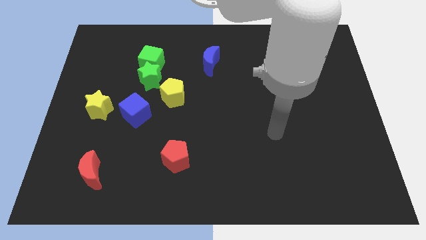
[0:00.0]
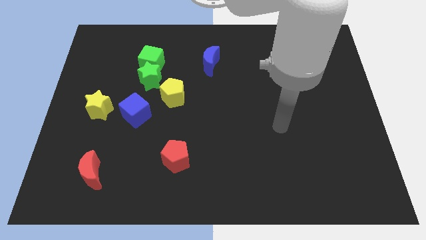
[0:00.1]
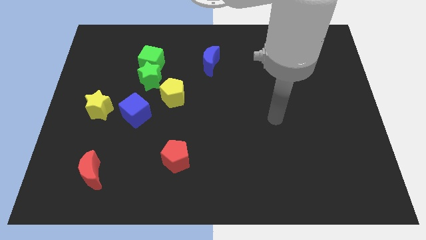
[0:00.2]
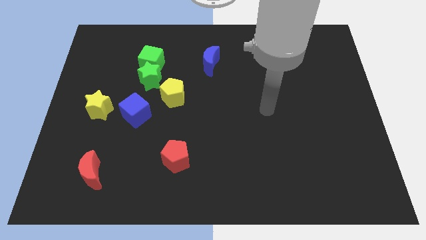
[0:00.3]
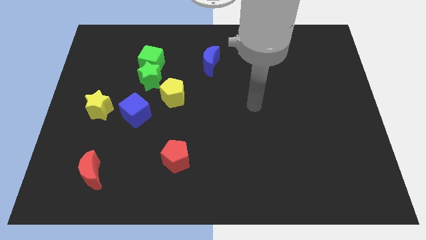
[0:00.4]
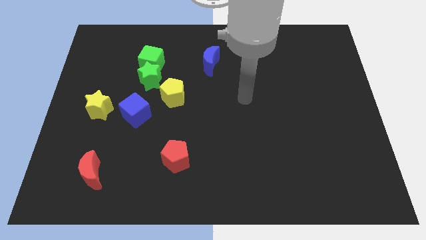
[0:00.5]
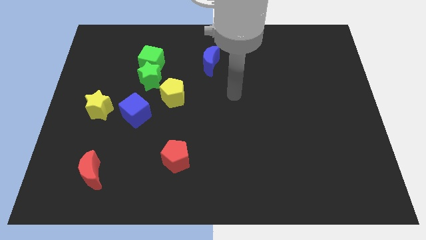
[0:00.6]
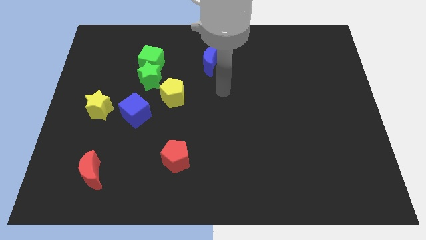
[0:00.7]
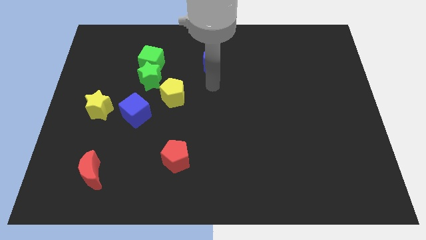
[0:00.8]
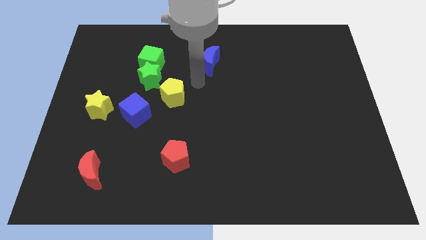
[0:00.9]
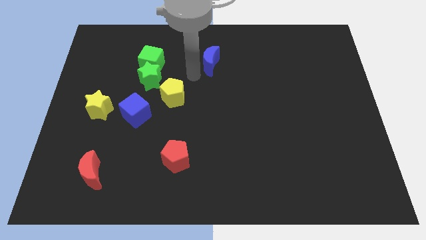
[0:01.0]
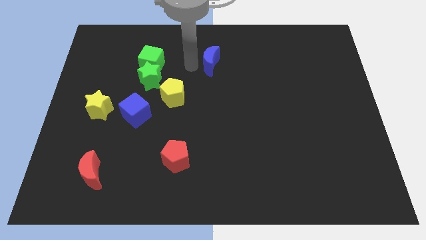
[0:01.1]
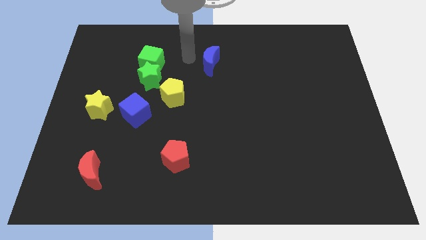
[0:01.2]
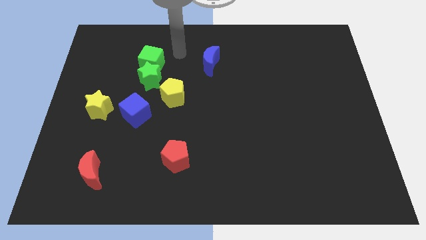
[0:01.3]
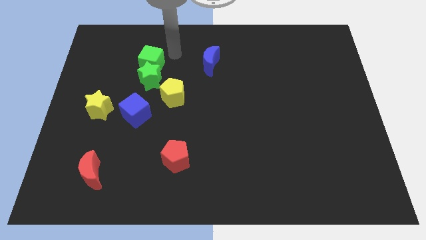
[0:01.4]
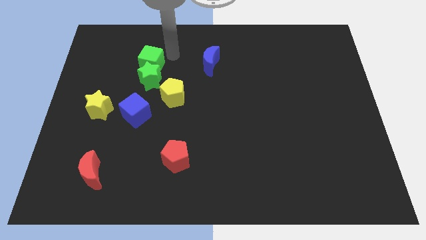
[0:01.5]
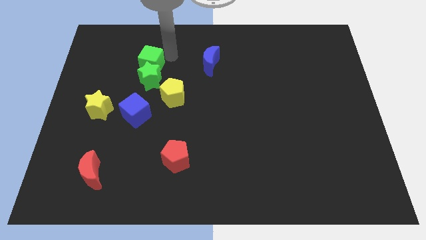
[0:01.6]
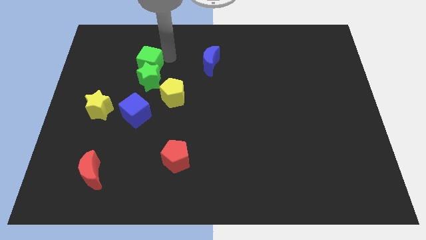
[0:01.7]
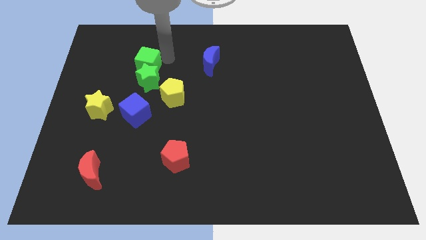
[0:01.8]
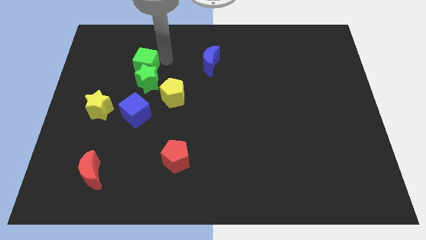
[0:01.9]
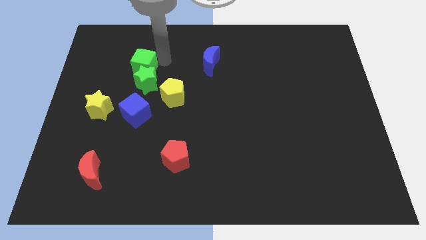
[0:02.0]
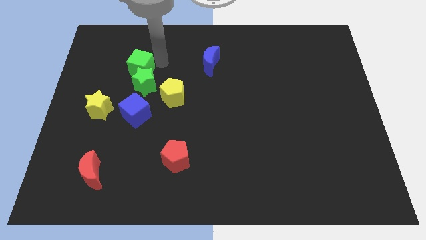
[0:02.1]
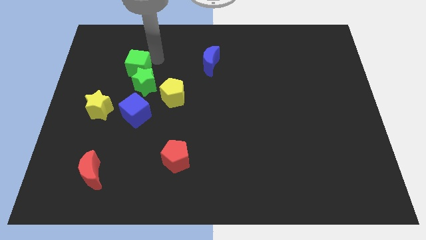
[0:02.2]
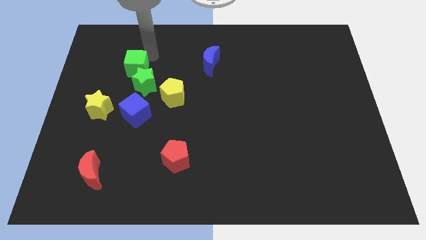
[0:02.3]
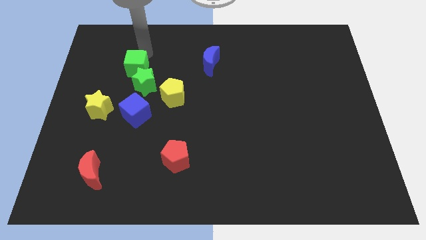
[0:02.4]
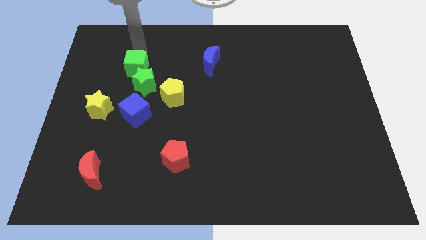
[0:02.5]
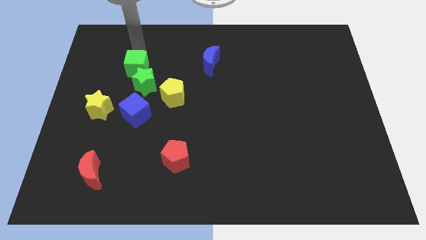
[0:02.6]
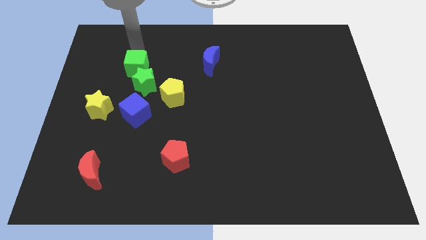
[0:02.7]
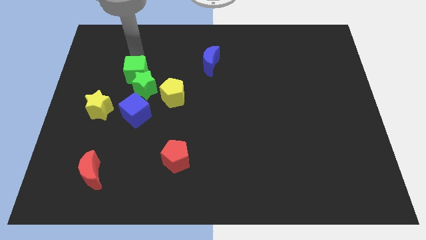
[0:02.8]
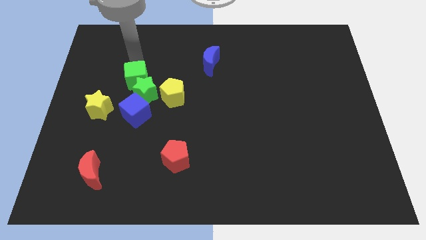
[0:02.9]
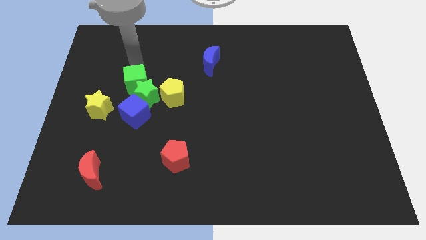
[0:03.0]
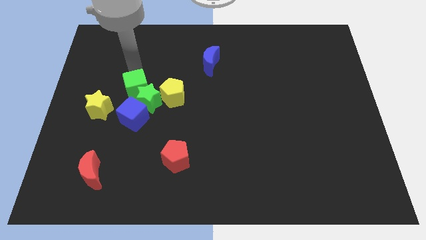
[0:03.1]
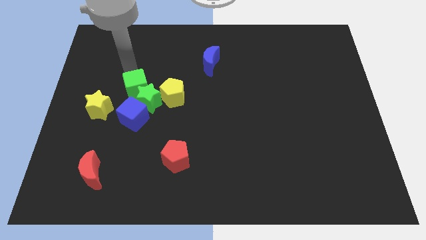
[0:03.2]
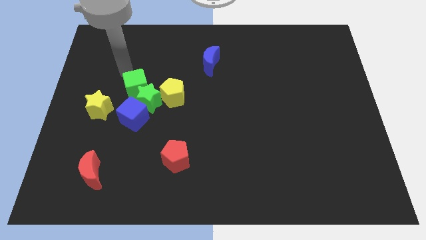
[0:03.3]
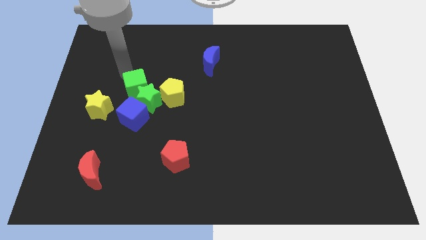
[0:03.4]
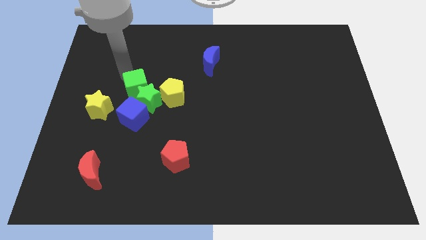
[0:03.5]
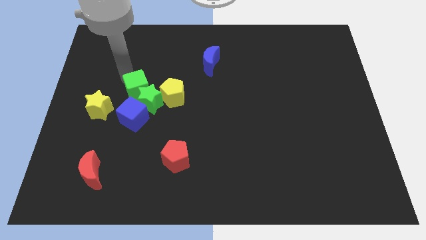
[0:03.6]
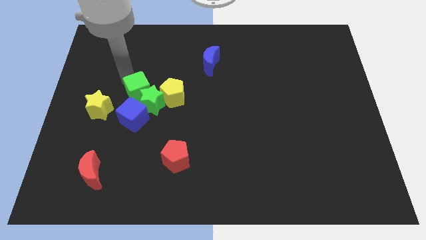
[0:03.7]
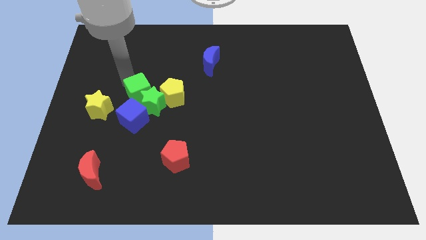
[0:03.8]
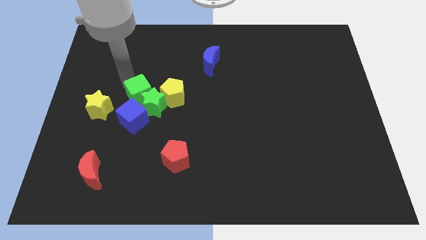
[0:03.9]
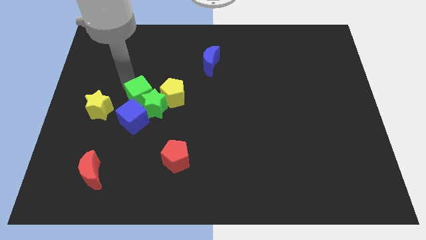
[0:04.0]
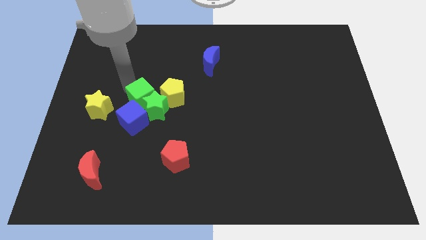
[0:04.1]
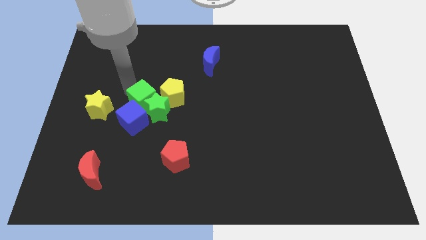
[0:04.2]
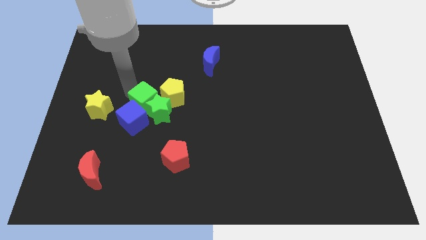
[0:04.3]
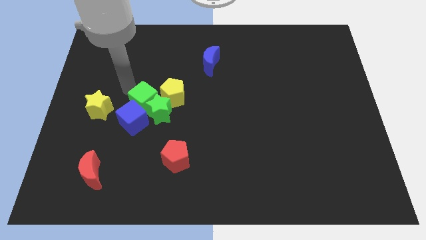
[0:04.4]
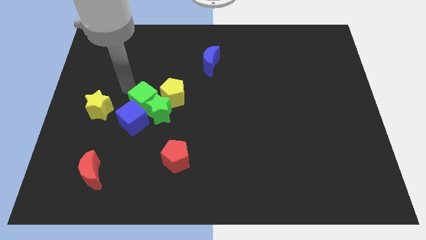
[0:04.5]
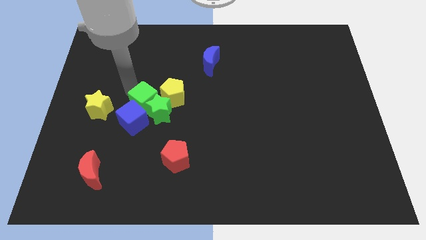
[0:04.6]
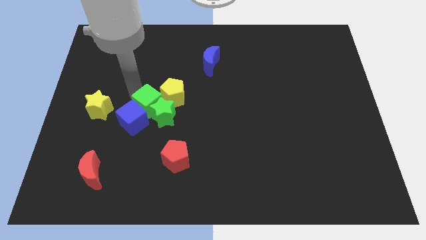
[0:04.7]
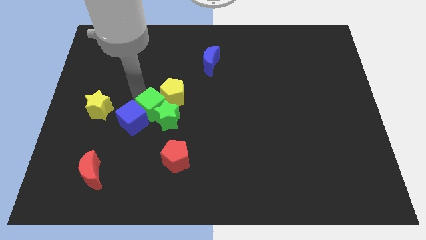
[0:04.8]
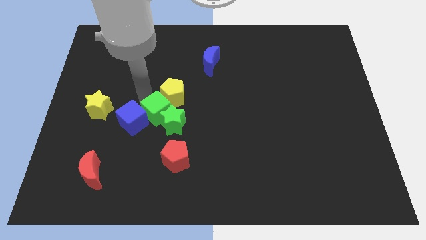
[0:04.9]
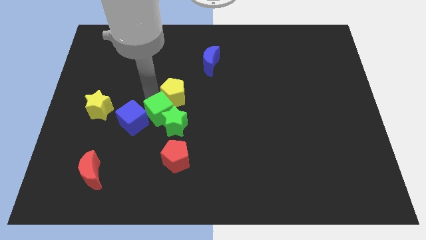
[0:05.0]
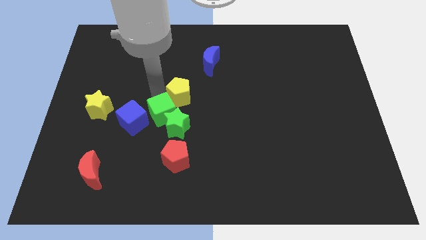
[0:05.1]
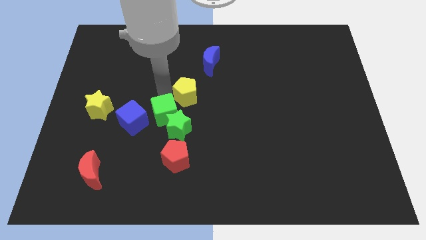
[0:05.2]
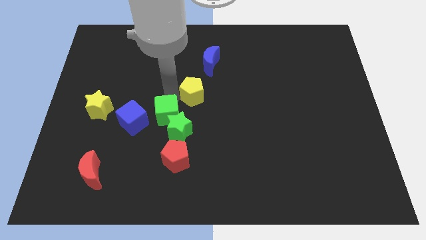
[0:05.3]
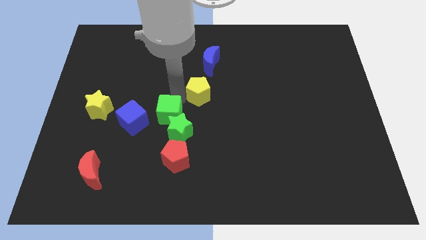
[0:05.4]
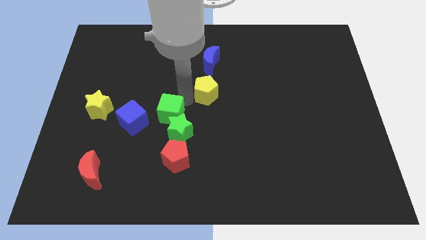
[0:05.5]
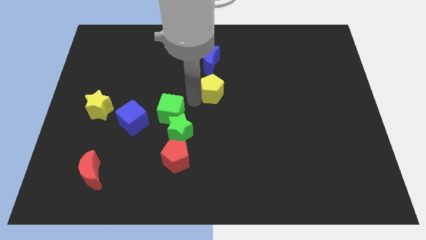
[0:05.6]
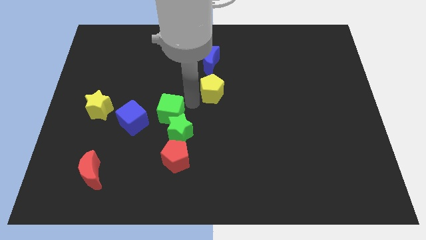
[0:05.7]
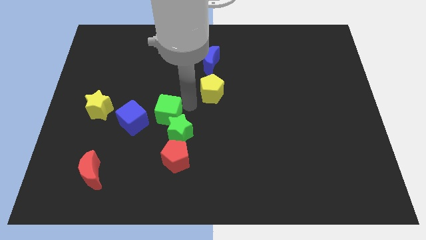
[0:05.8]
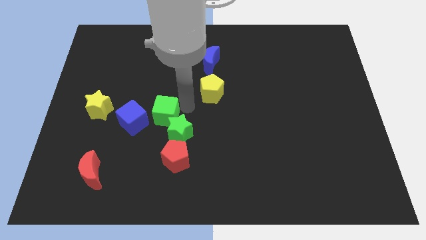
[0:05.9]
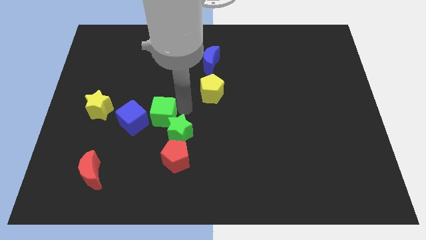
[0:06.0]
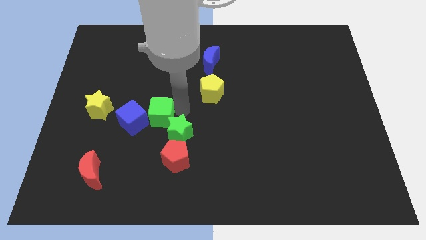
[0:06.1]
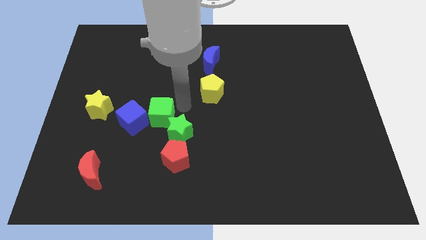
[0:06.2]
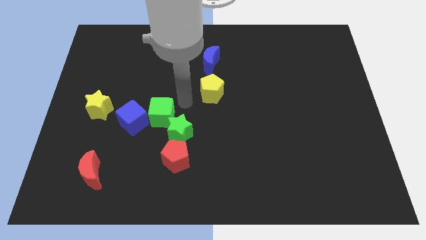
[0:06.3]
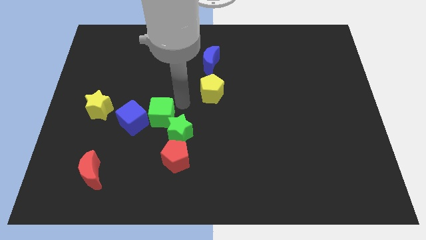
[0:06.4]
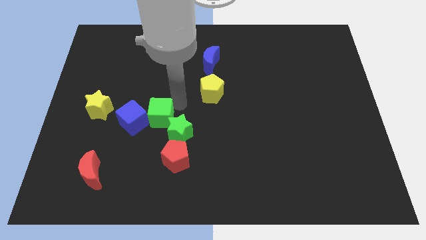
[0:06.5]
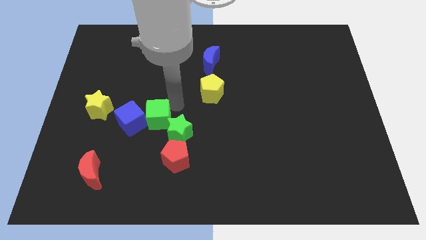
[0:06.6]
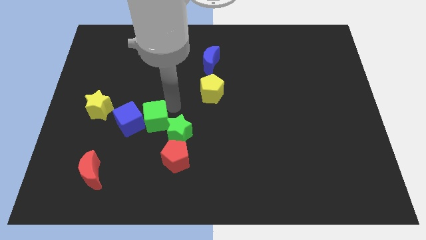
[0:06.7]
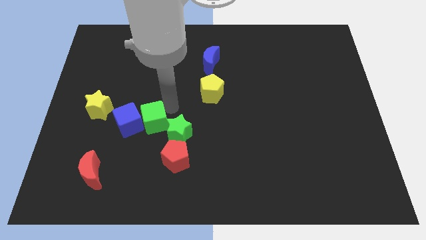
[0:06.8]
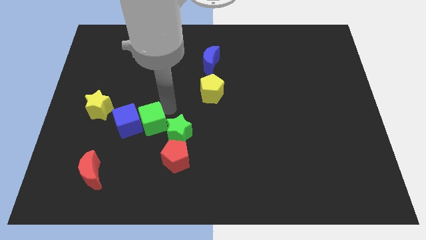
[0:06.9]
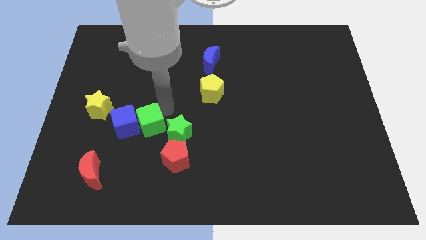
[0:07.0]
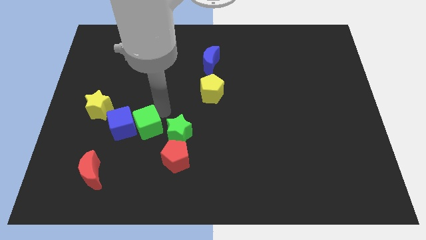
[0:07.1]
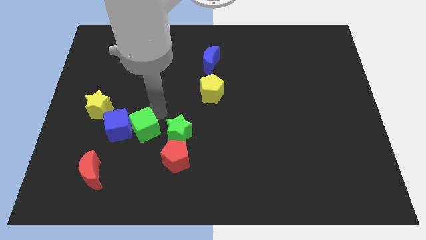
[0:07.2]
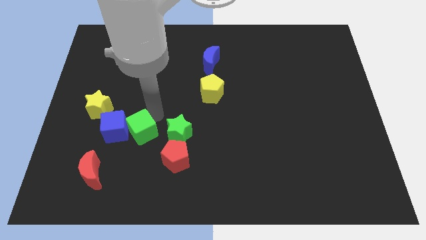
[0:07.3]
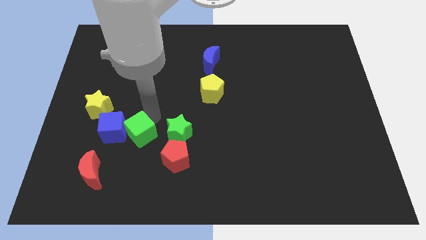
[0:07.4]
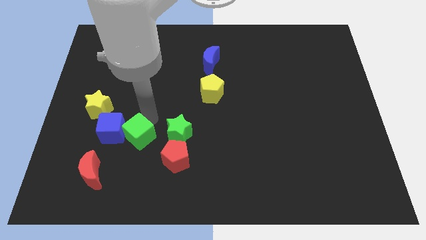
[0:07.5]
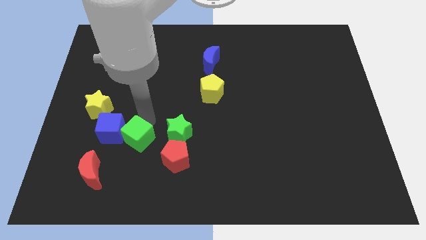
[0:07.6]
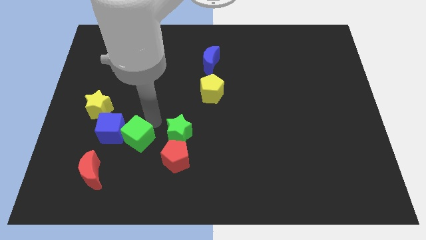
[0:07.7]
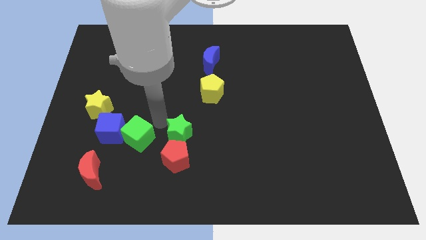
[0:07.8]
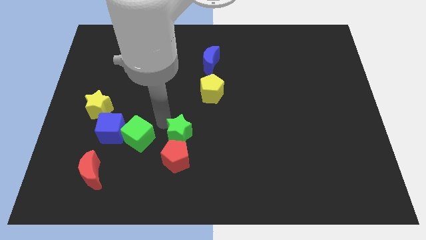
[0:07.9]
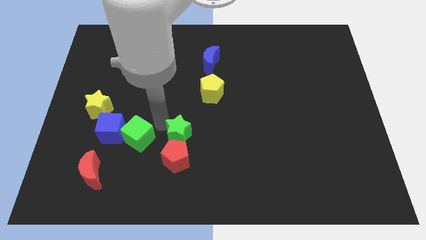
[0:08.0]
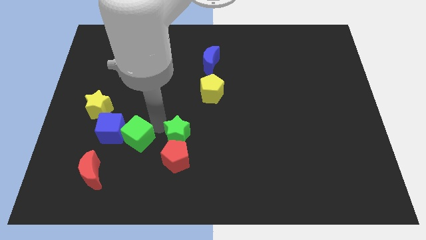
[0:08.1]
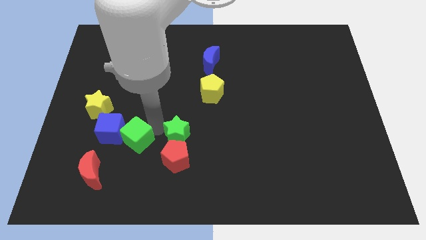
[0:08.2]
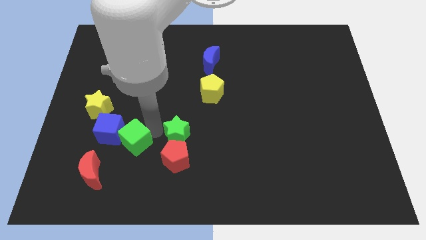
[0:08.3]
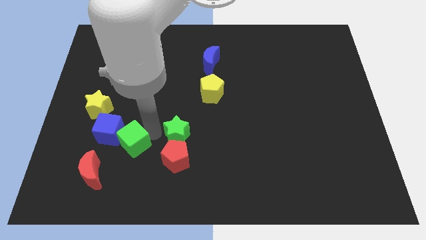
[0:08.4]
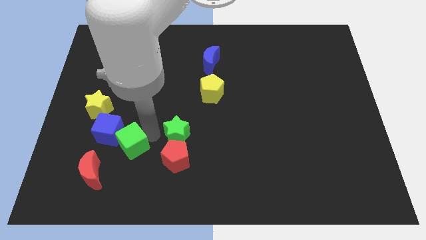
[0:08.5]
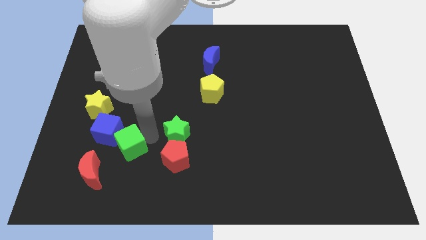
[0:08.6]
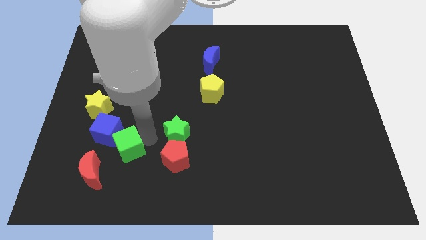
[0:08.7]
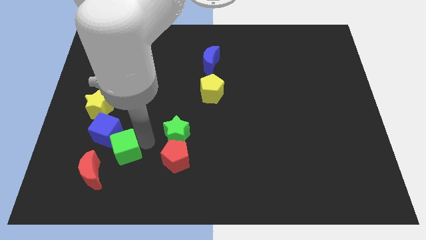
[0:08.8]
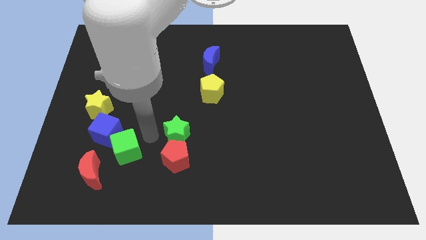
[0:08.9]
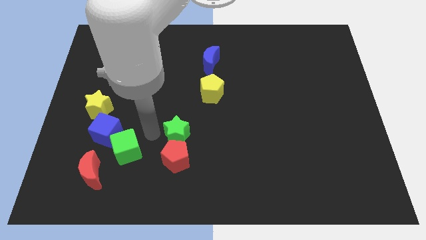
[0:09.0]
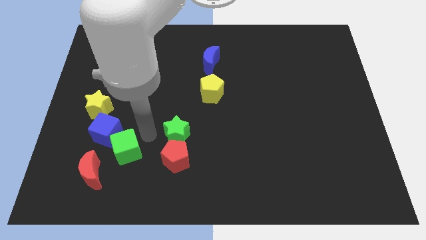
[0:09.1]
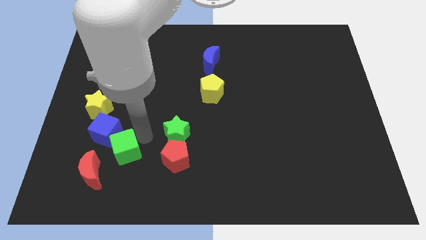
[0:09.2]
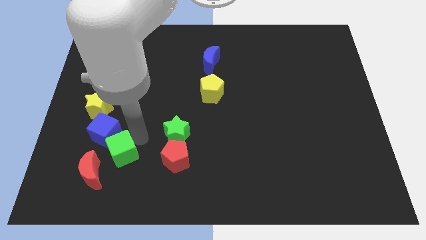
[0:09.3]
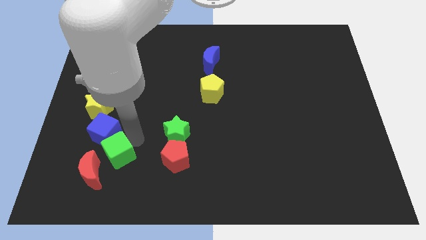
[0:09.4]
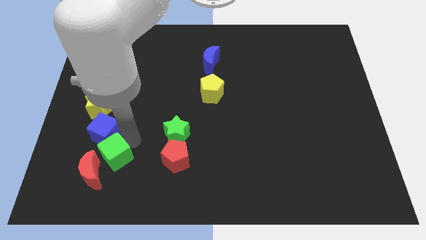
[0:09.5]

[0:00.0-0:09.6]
move the green cube close to the red moon
